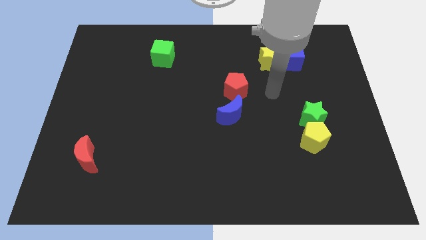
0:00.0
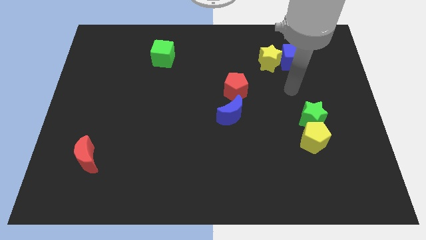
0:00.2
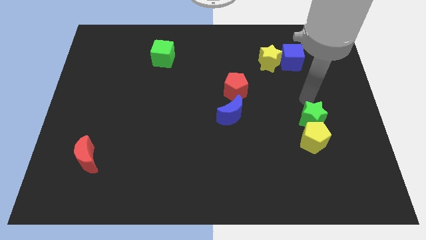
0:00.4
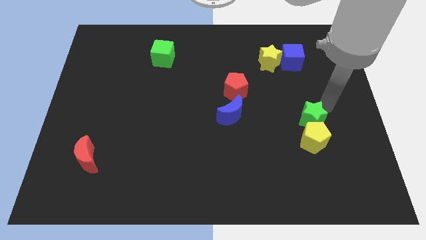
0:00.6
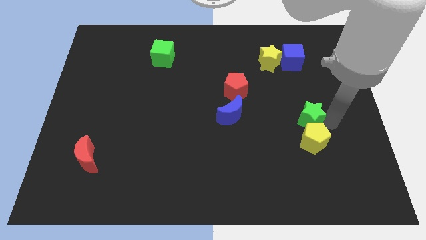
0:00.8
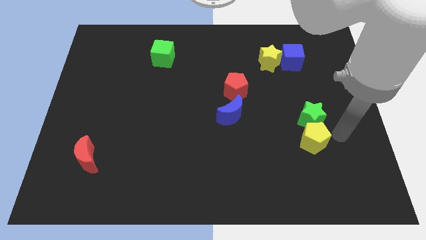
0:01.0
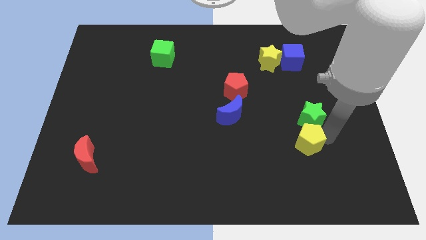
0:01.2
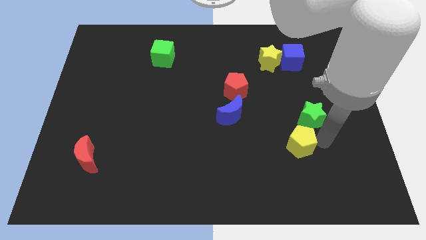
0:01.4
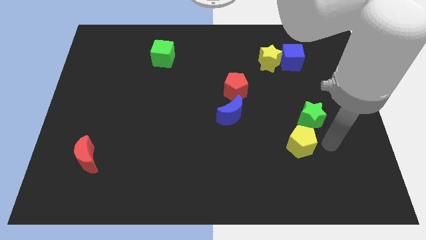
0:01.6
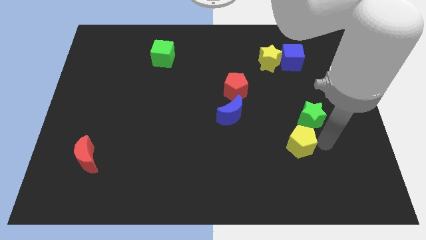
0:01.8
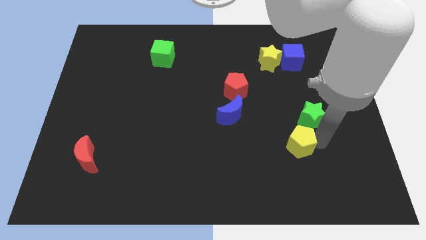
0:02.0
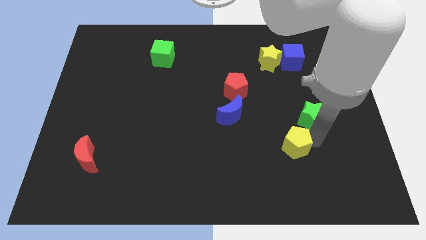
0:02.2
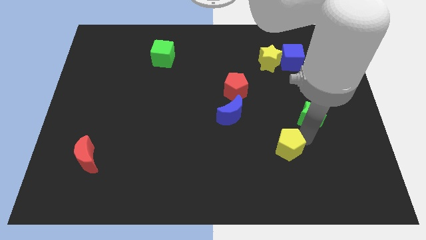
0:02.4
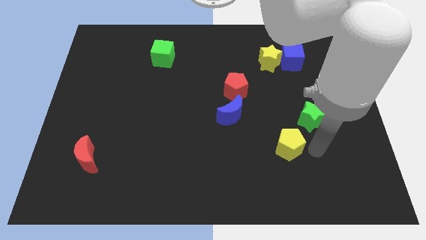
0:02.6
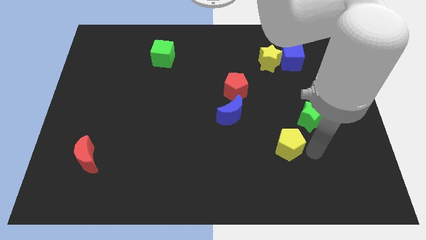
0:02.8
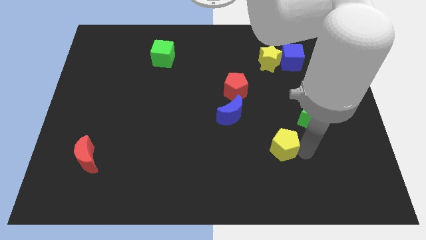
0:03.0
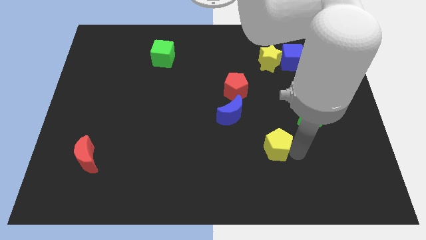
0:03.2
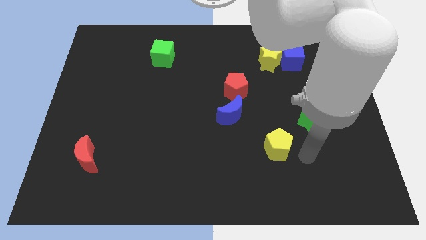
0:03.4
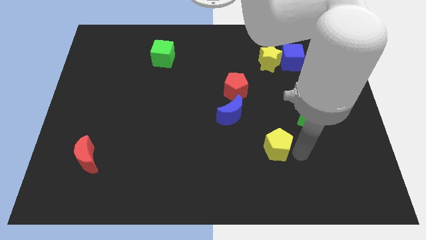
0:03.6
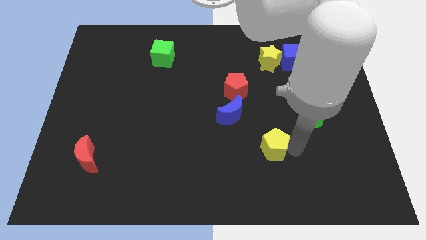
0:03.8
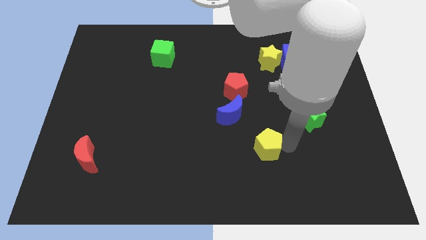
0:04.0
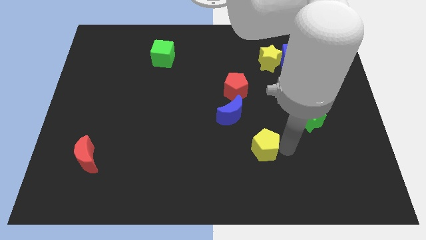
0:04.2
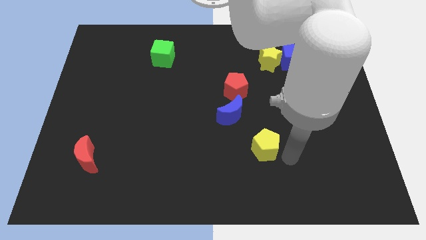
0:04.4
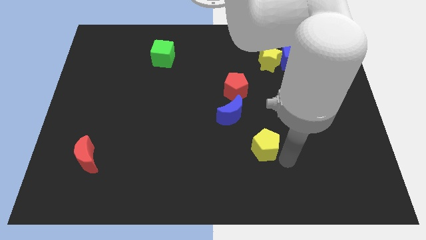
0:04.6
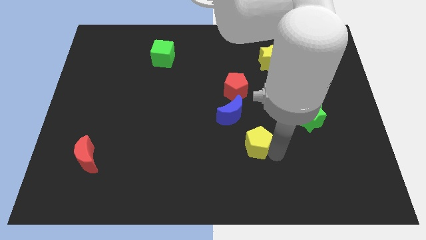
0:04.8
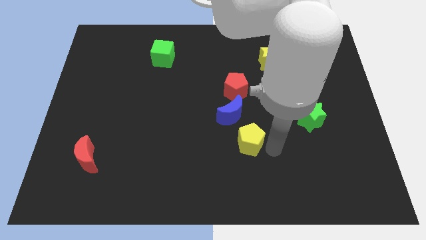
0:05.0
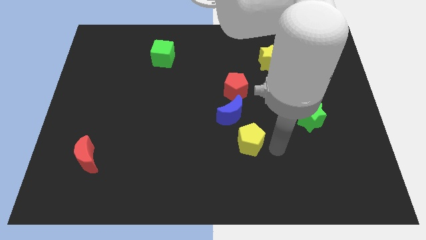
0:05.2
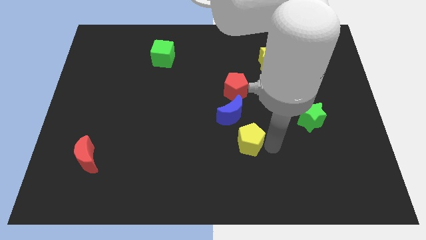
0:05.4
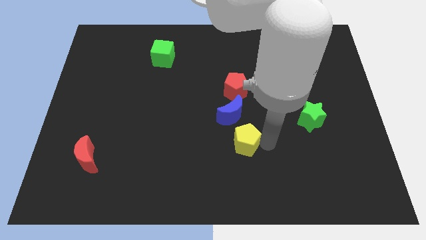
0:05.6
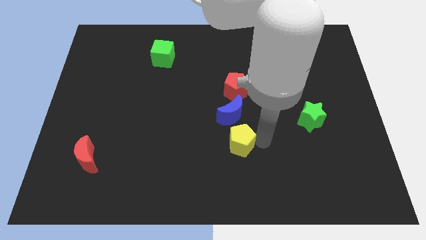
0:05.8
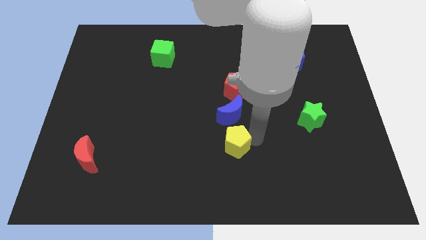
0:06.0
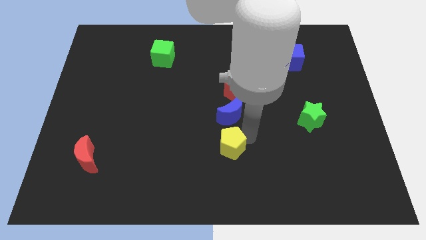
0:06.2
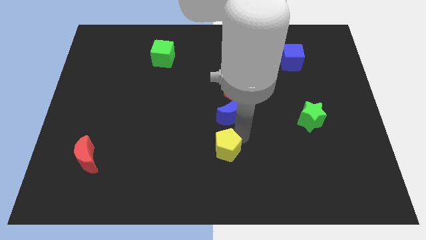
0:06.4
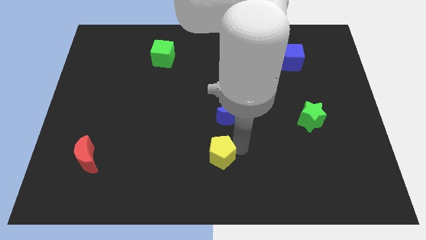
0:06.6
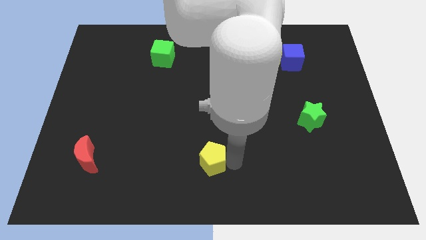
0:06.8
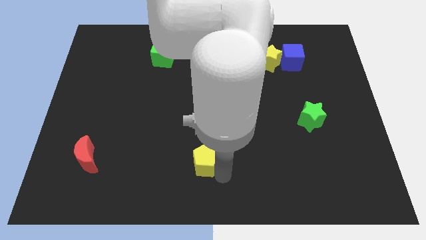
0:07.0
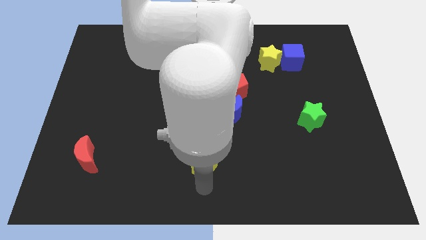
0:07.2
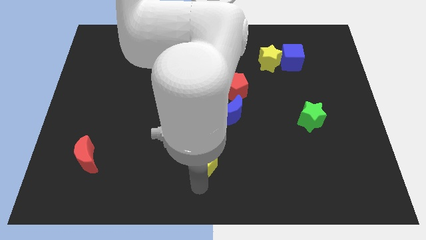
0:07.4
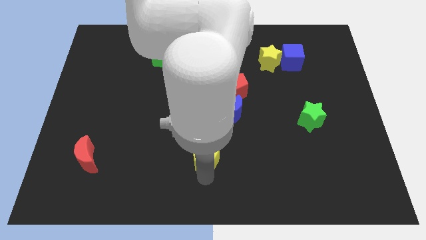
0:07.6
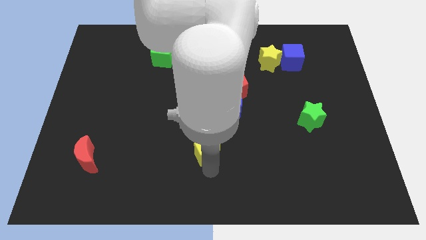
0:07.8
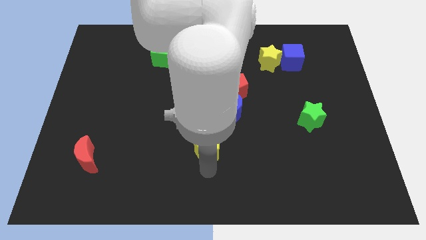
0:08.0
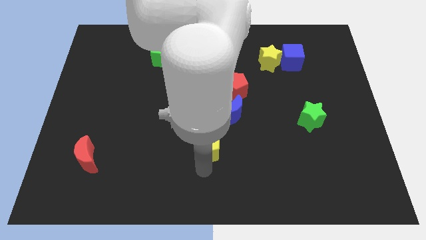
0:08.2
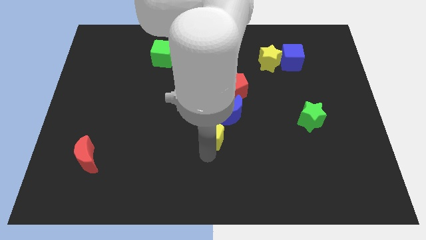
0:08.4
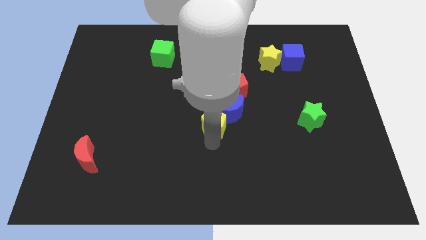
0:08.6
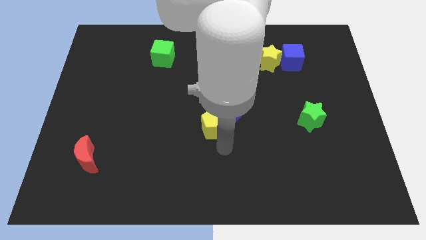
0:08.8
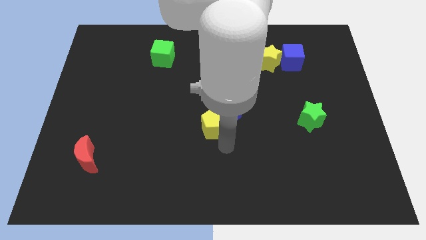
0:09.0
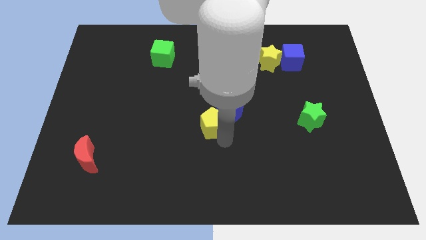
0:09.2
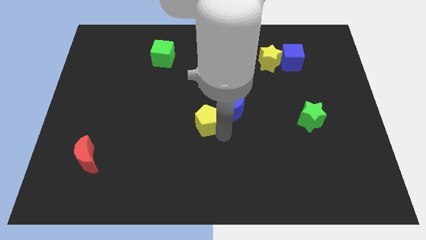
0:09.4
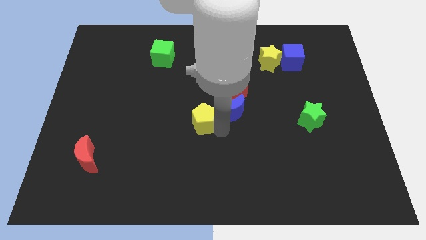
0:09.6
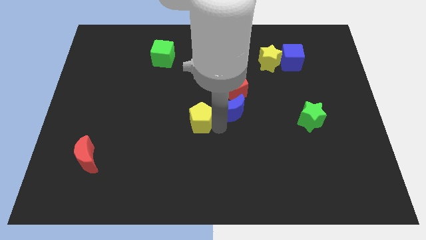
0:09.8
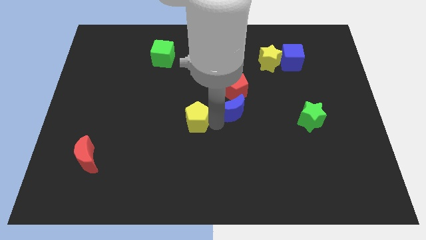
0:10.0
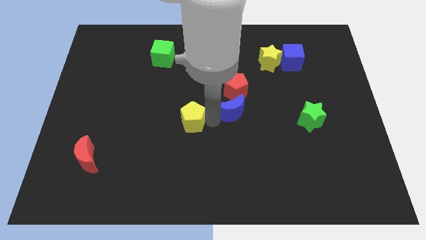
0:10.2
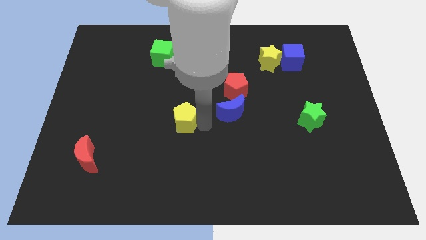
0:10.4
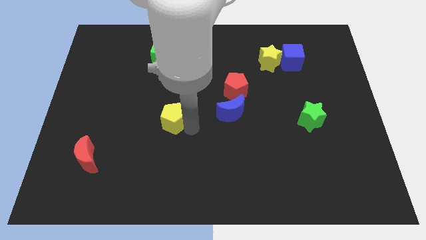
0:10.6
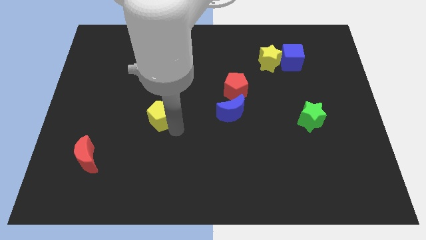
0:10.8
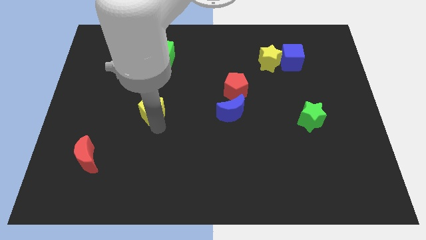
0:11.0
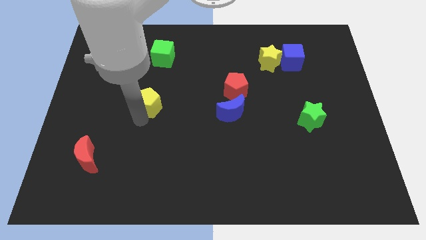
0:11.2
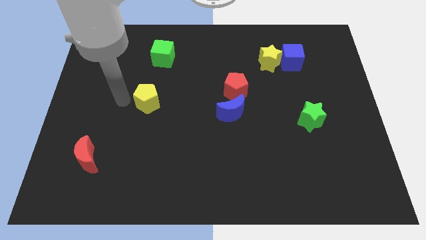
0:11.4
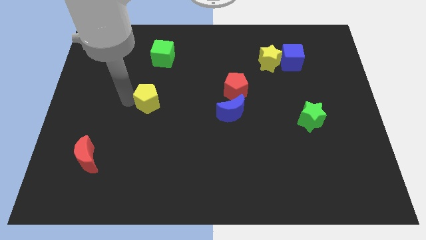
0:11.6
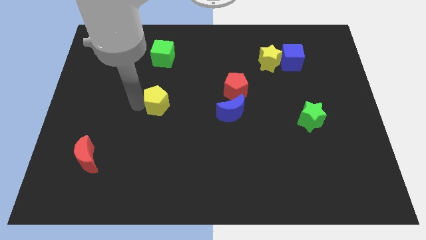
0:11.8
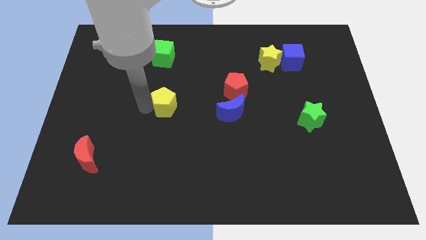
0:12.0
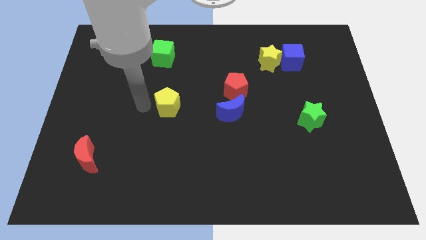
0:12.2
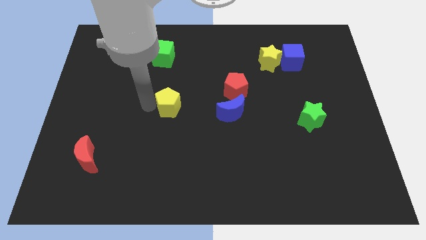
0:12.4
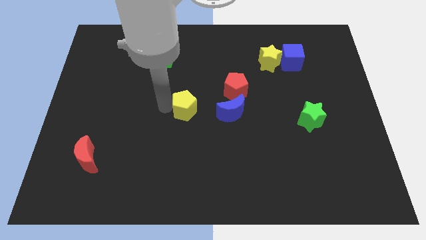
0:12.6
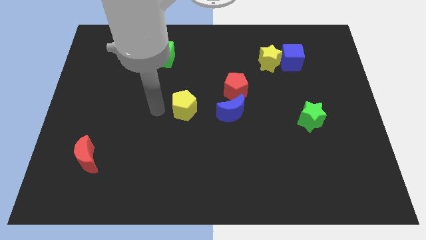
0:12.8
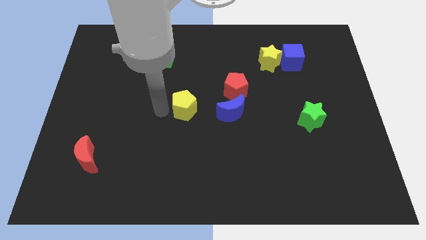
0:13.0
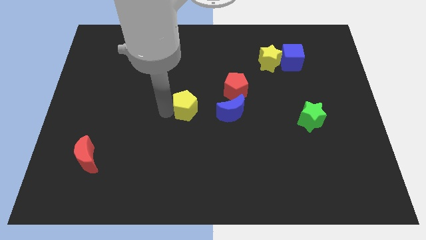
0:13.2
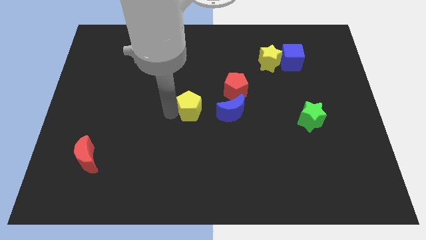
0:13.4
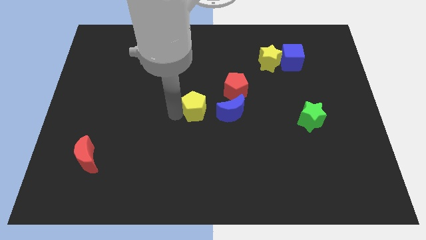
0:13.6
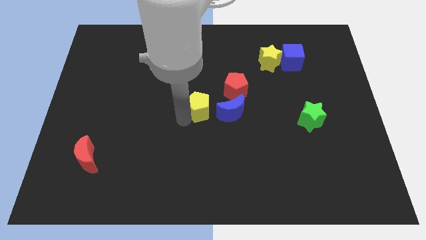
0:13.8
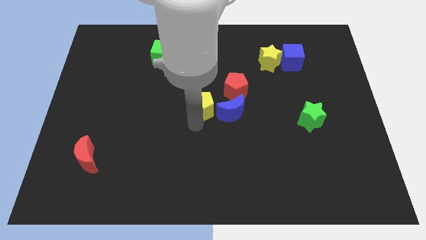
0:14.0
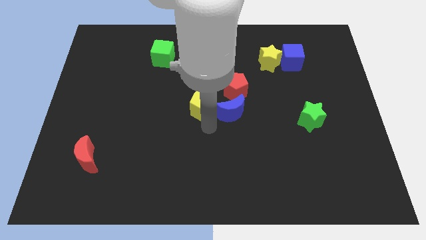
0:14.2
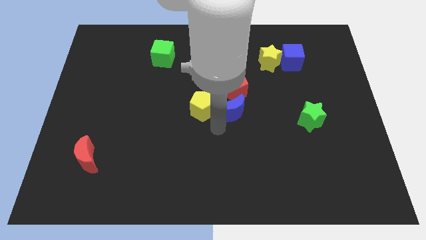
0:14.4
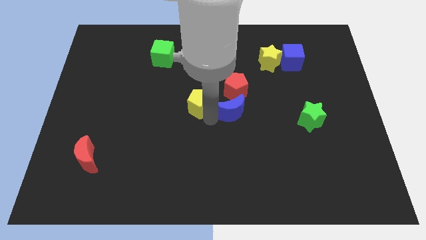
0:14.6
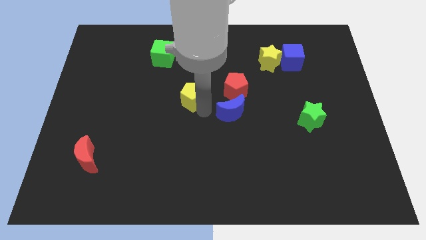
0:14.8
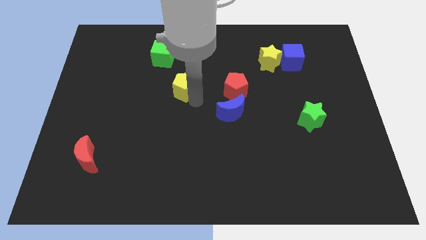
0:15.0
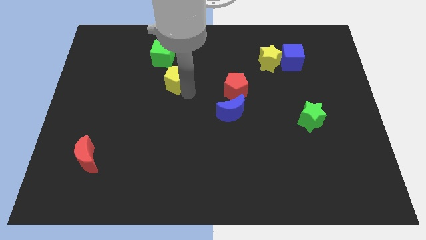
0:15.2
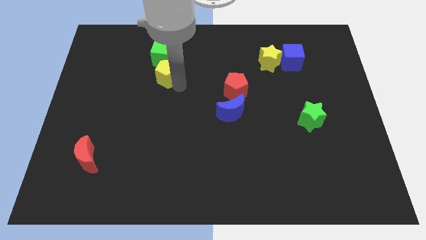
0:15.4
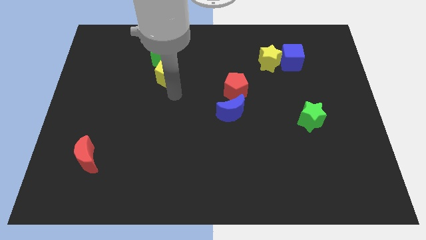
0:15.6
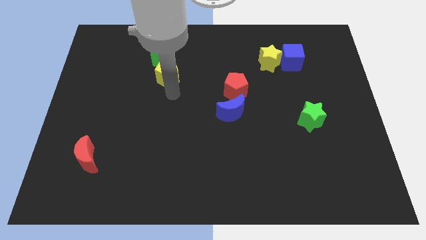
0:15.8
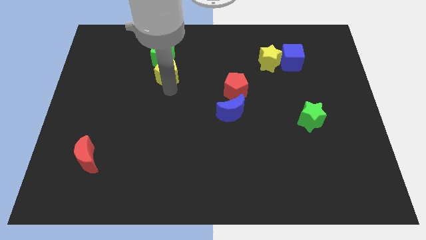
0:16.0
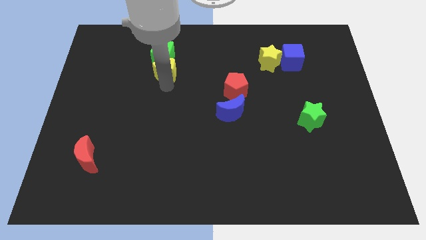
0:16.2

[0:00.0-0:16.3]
push the yellow pentagon towards the green cube
